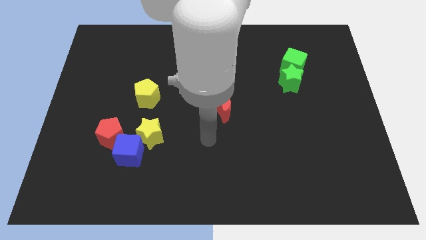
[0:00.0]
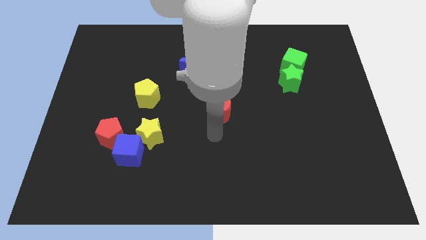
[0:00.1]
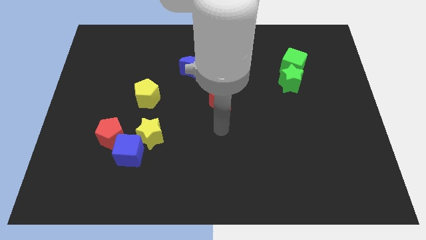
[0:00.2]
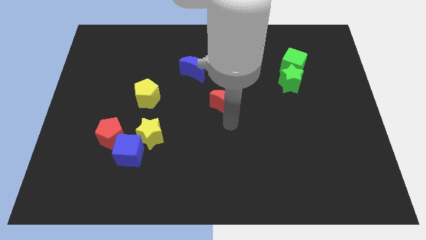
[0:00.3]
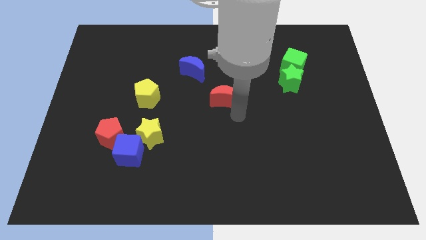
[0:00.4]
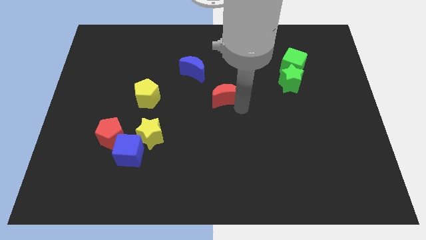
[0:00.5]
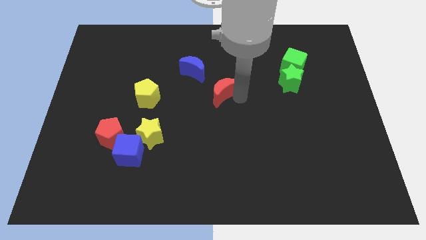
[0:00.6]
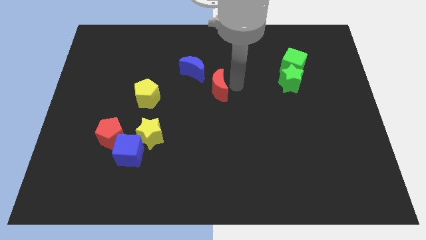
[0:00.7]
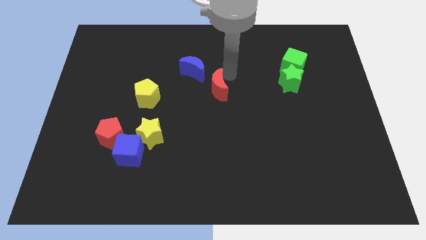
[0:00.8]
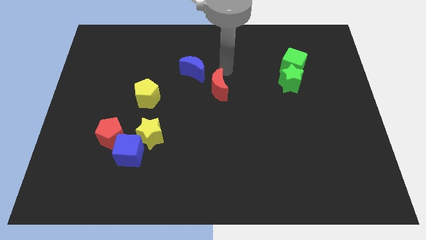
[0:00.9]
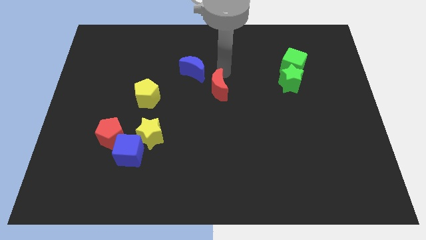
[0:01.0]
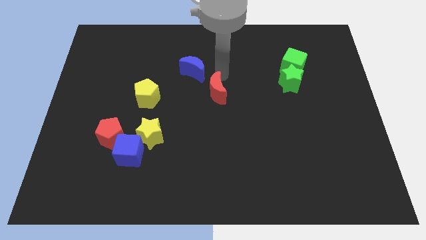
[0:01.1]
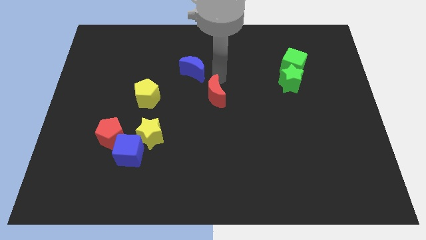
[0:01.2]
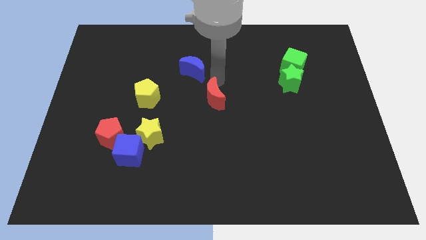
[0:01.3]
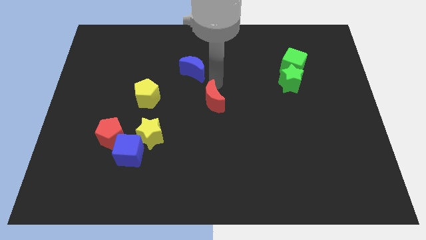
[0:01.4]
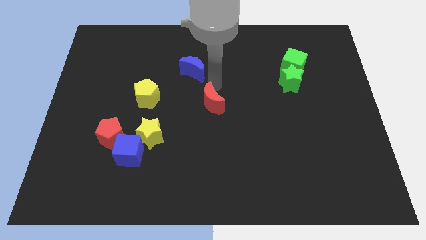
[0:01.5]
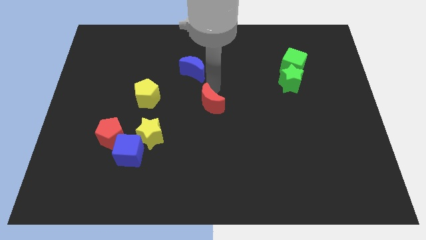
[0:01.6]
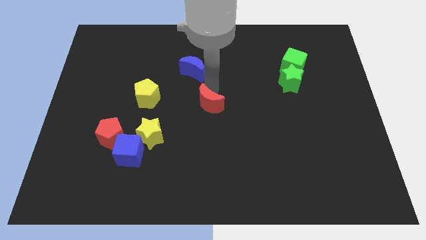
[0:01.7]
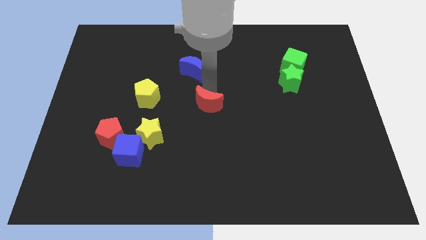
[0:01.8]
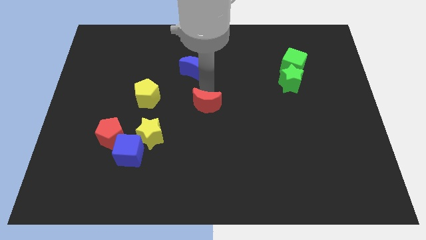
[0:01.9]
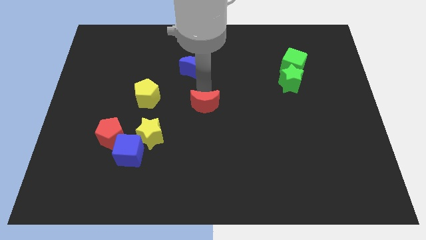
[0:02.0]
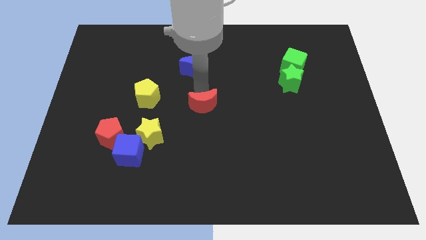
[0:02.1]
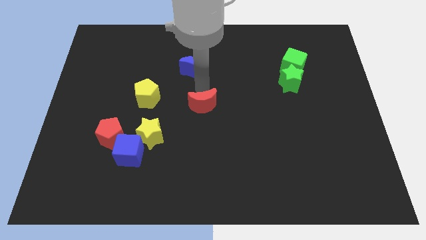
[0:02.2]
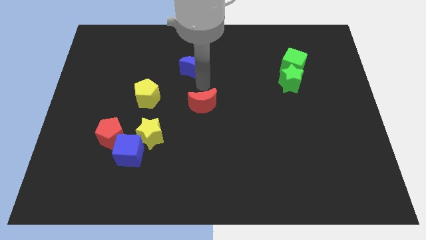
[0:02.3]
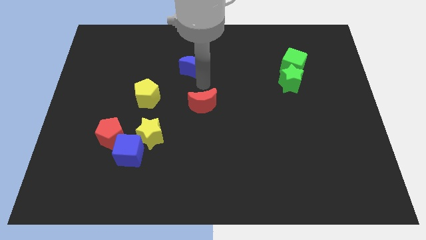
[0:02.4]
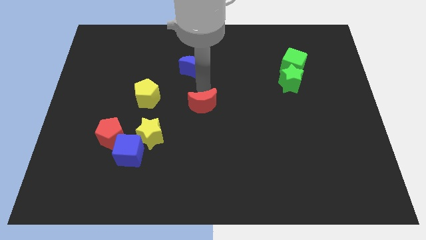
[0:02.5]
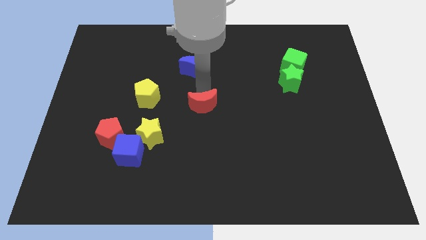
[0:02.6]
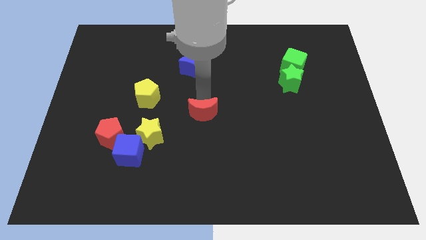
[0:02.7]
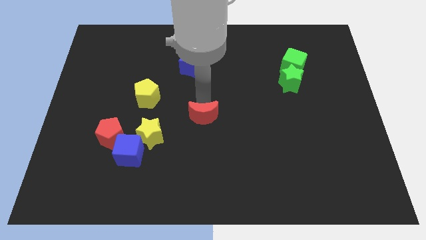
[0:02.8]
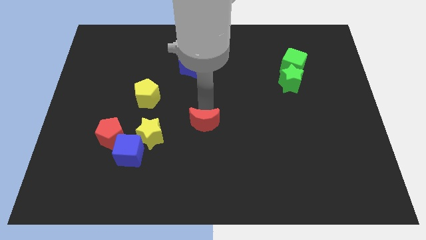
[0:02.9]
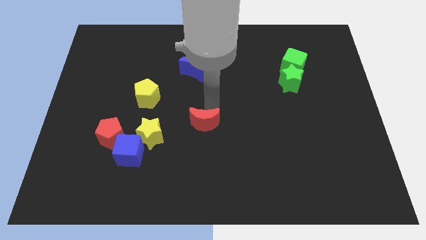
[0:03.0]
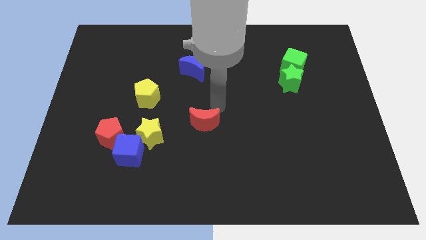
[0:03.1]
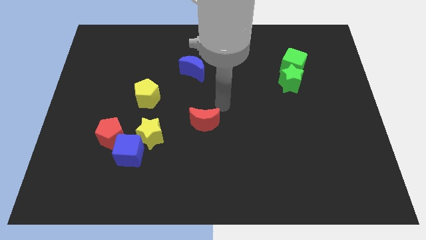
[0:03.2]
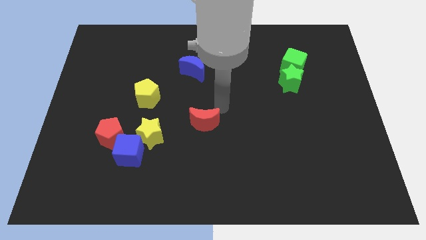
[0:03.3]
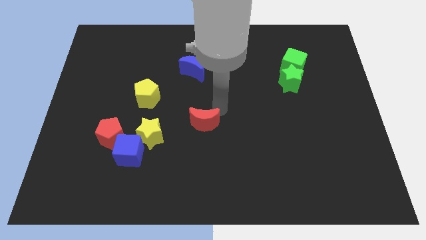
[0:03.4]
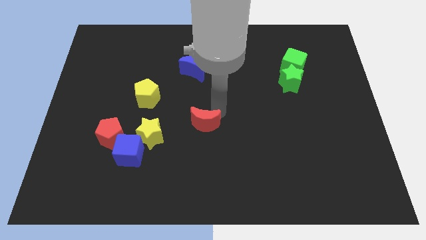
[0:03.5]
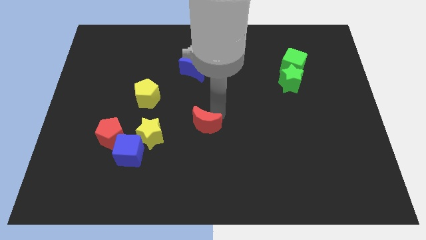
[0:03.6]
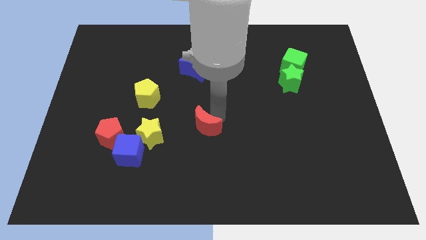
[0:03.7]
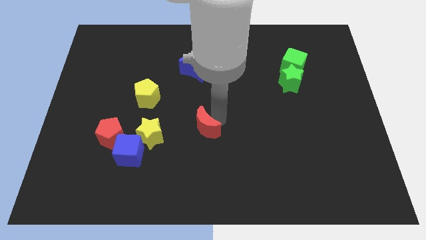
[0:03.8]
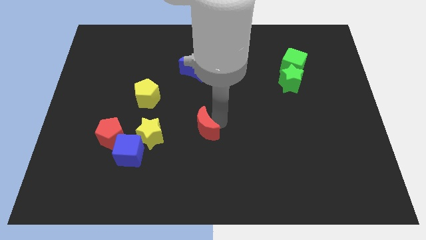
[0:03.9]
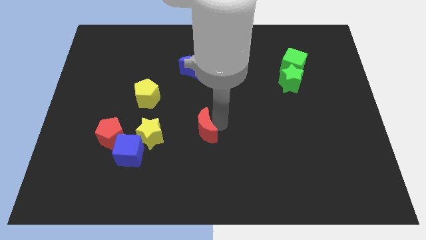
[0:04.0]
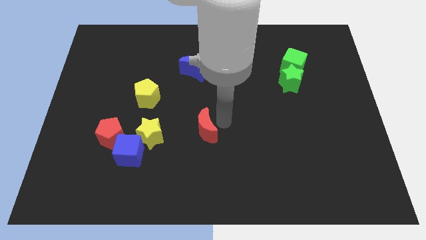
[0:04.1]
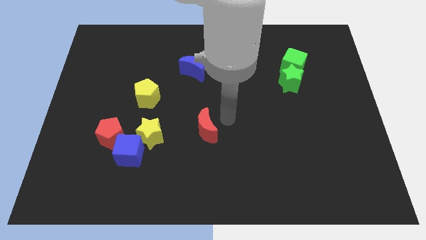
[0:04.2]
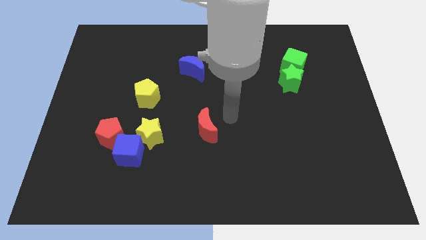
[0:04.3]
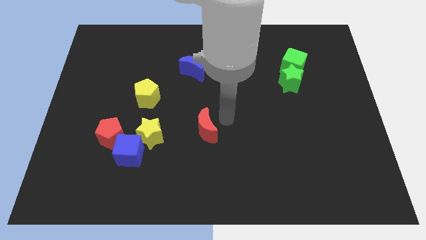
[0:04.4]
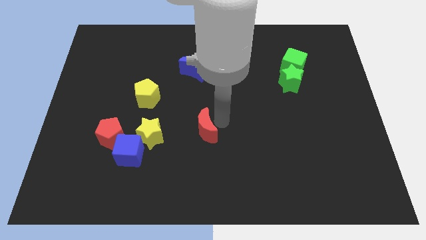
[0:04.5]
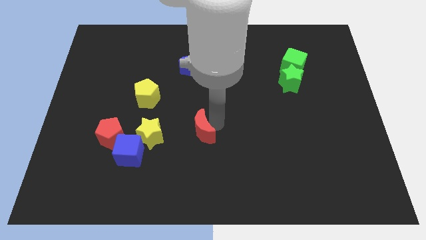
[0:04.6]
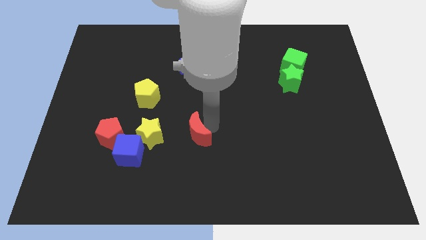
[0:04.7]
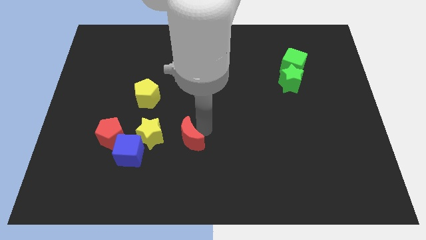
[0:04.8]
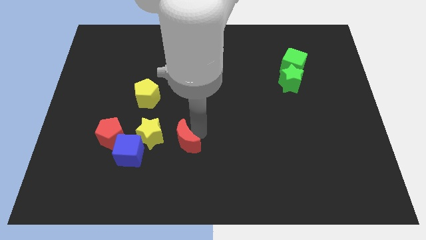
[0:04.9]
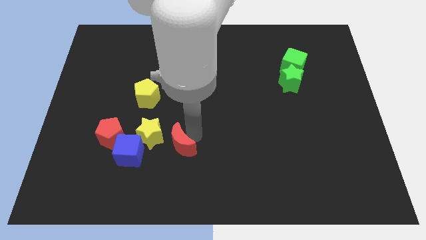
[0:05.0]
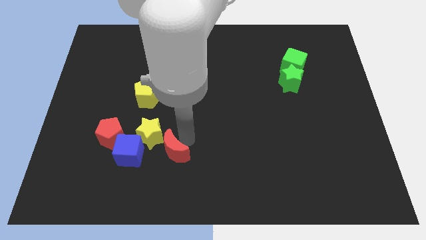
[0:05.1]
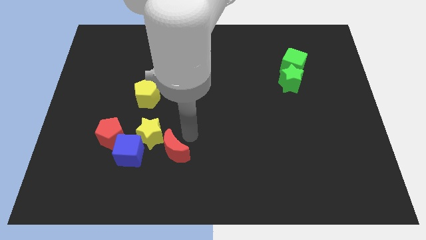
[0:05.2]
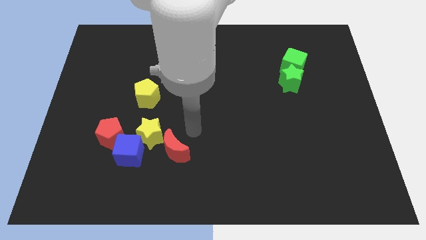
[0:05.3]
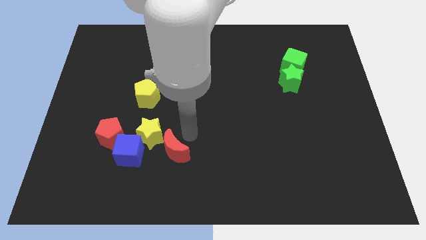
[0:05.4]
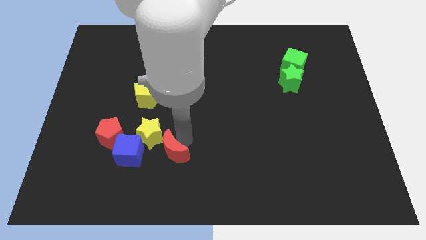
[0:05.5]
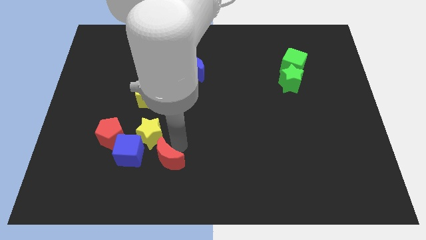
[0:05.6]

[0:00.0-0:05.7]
move the red moon diagonally down and to the right of the blue cube

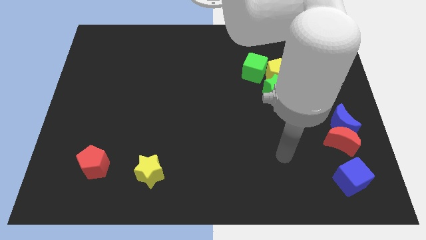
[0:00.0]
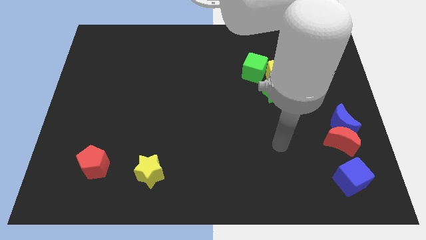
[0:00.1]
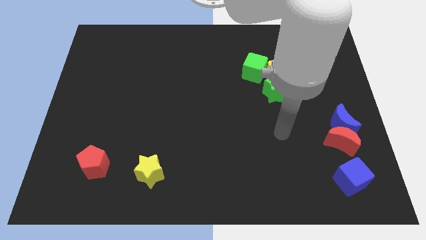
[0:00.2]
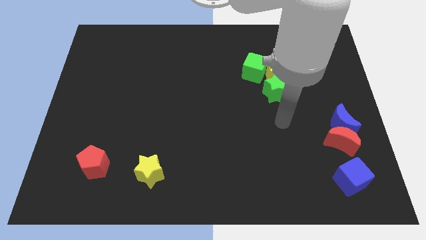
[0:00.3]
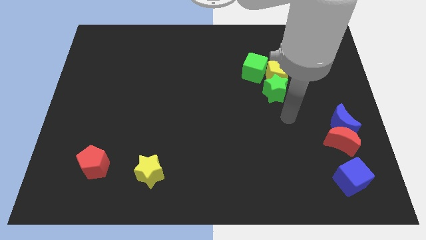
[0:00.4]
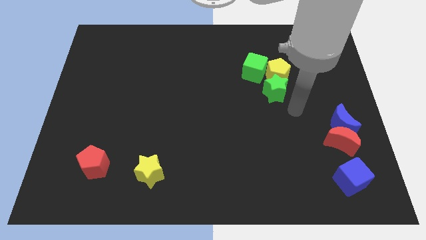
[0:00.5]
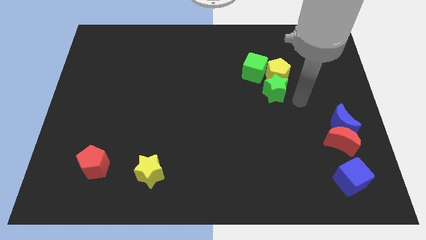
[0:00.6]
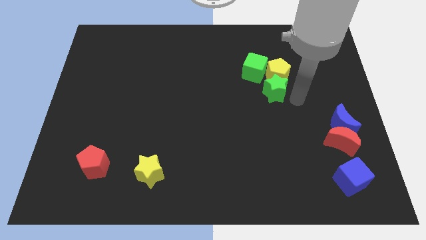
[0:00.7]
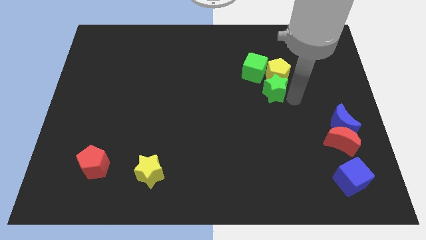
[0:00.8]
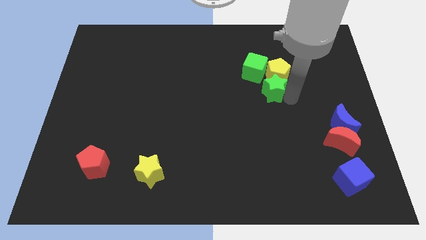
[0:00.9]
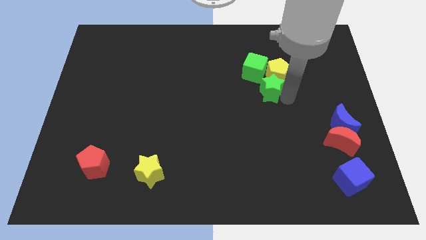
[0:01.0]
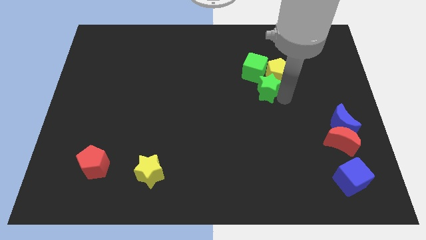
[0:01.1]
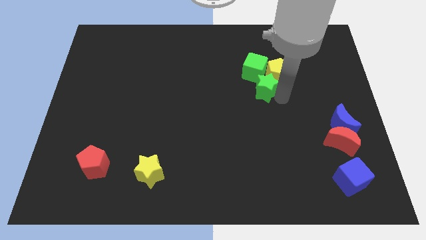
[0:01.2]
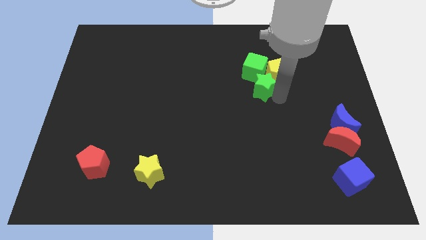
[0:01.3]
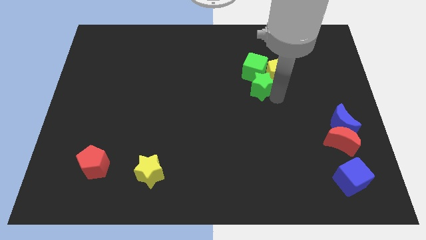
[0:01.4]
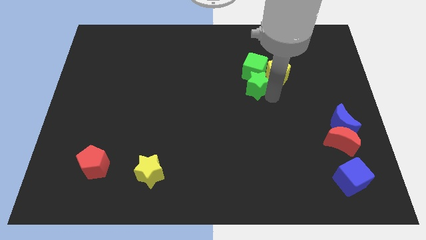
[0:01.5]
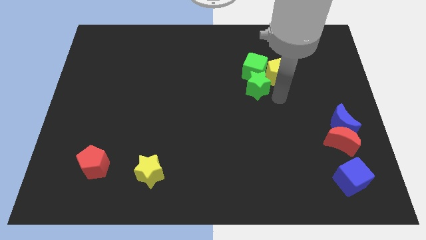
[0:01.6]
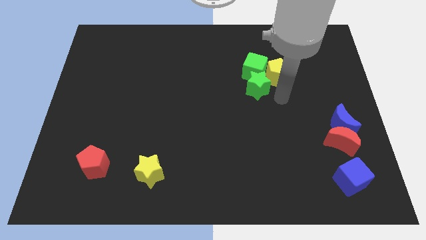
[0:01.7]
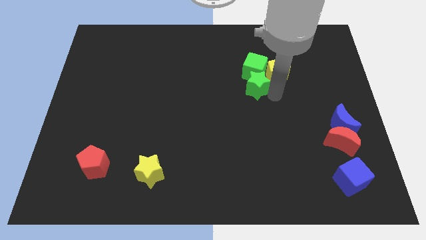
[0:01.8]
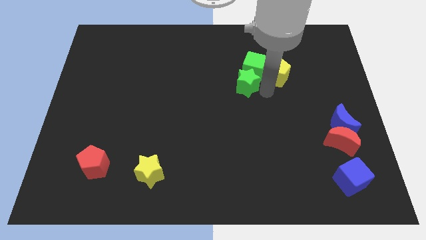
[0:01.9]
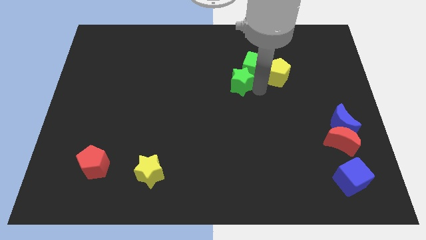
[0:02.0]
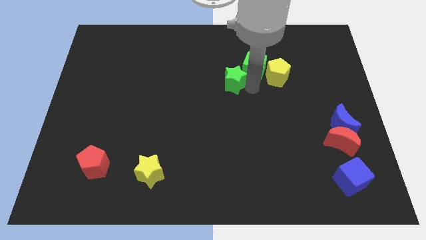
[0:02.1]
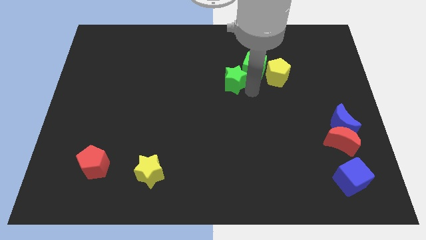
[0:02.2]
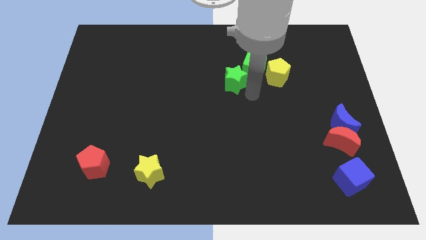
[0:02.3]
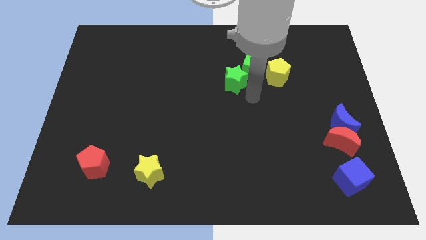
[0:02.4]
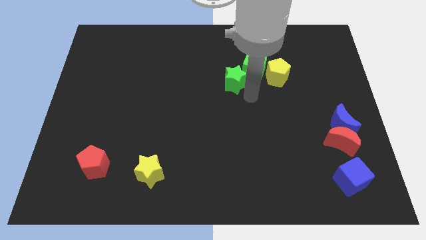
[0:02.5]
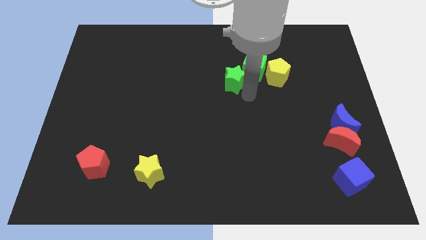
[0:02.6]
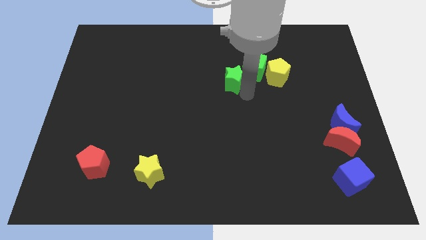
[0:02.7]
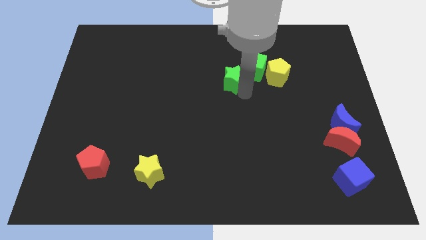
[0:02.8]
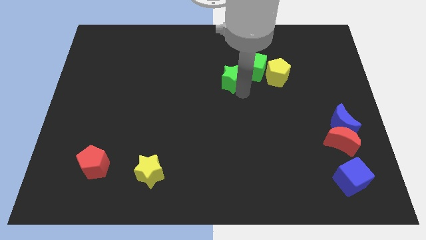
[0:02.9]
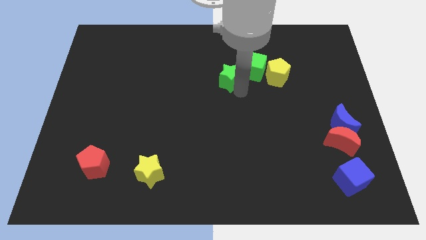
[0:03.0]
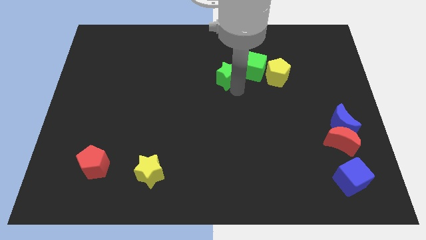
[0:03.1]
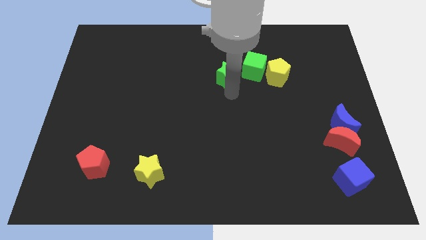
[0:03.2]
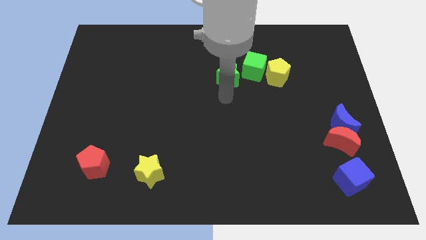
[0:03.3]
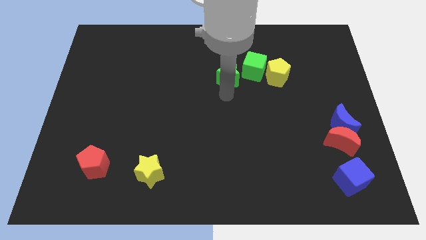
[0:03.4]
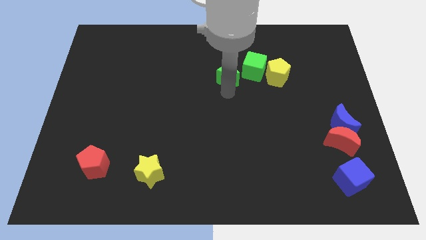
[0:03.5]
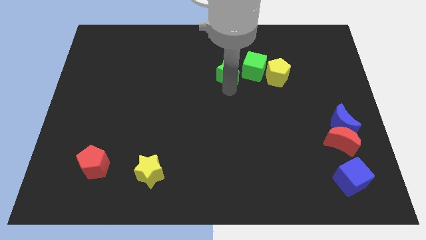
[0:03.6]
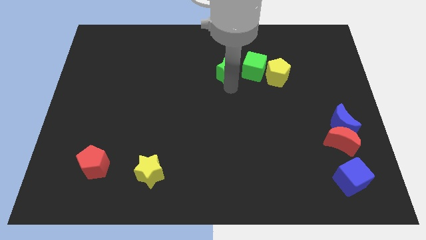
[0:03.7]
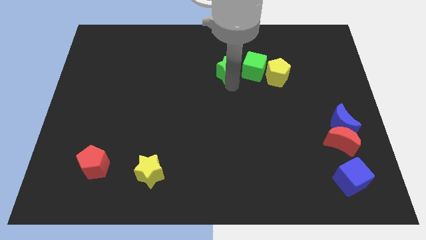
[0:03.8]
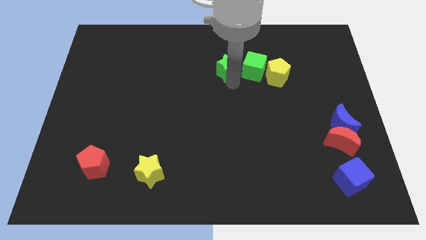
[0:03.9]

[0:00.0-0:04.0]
move the green star diagonally up and to the left of the green cube
